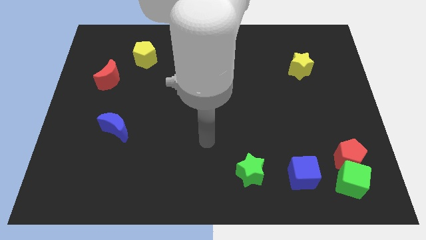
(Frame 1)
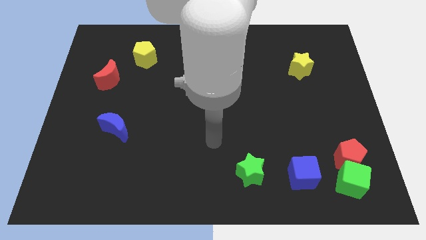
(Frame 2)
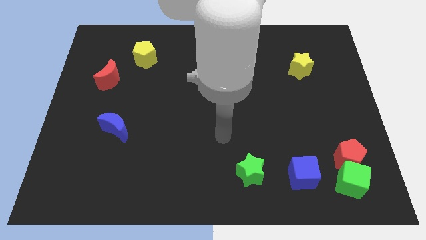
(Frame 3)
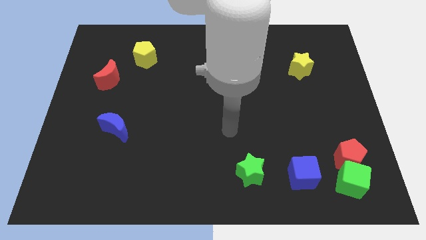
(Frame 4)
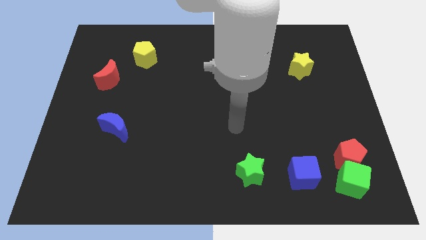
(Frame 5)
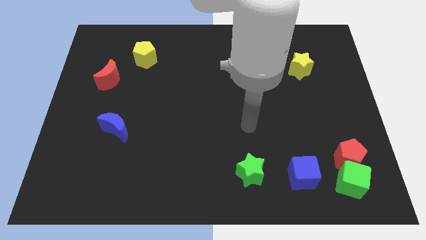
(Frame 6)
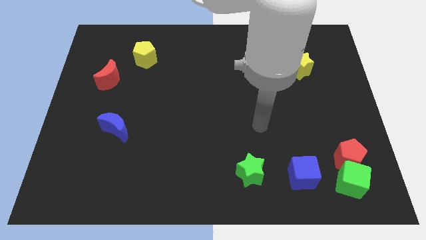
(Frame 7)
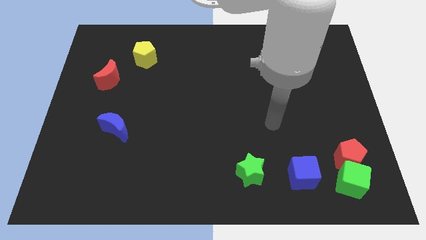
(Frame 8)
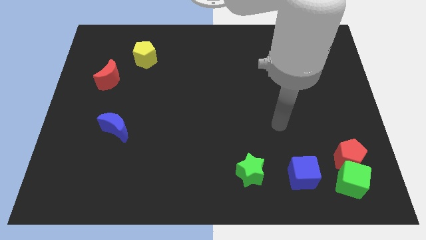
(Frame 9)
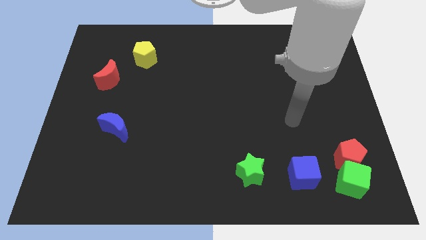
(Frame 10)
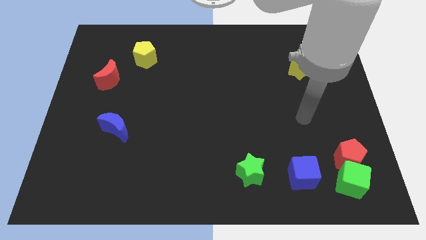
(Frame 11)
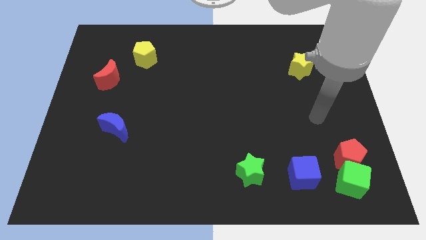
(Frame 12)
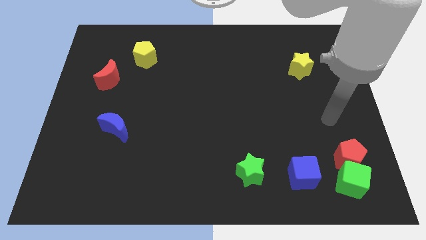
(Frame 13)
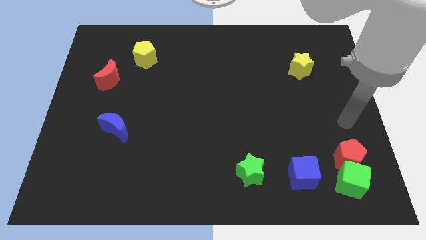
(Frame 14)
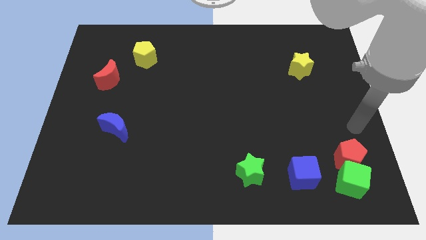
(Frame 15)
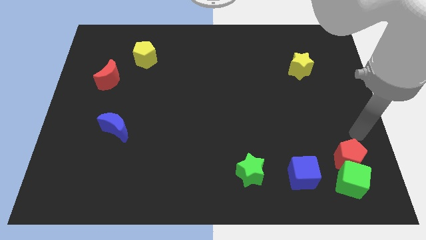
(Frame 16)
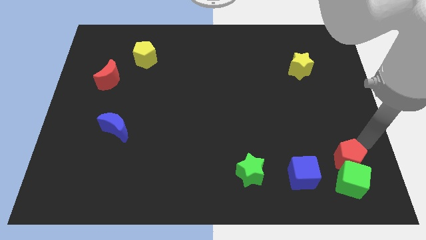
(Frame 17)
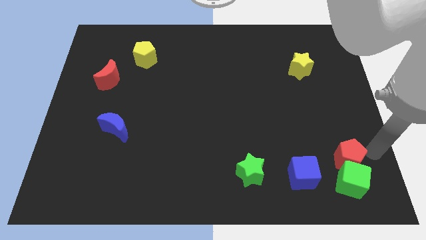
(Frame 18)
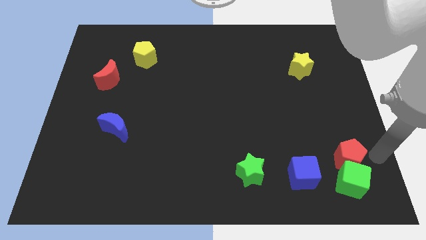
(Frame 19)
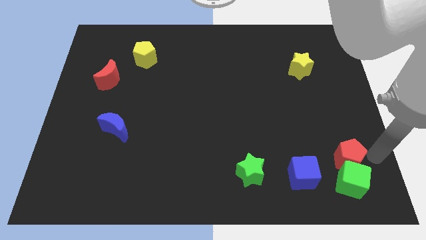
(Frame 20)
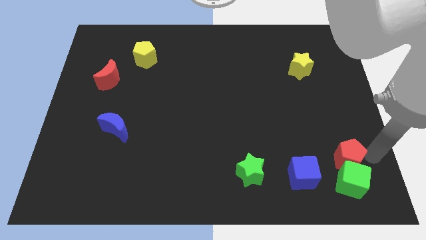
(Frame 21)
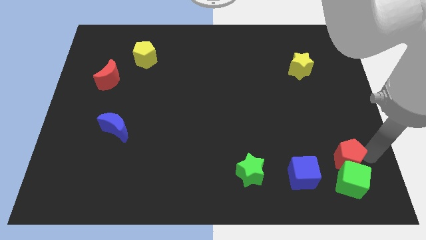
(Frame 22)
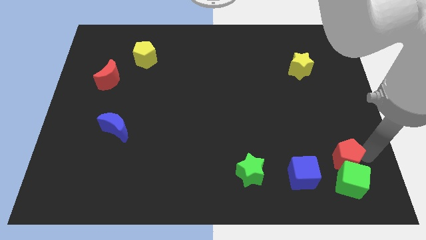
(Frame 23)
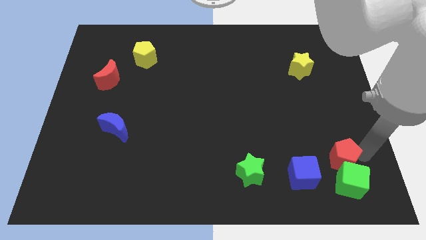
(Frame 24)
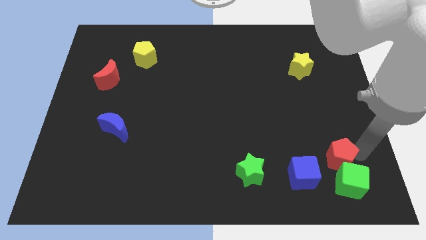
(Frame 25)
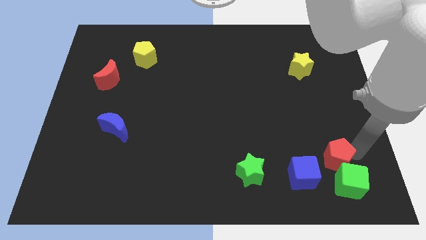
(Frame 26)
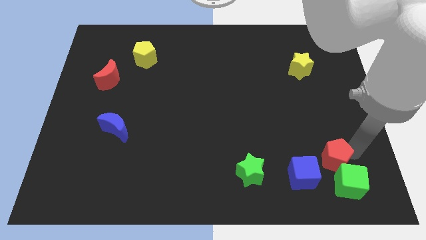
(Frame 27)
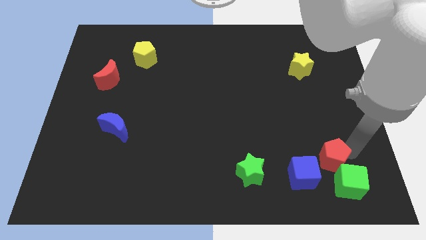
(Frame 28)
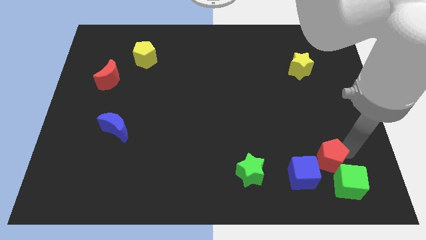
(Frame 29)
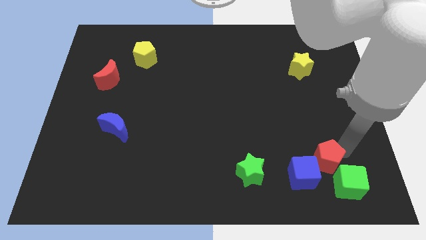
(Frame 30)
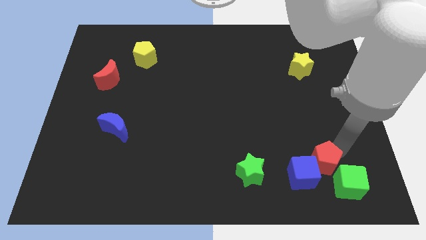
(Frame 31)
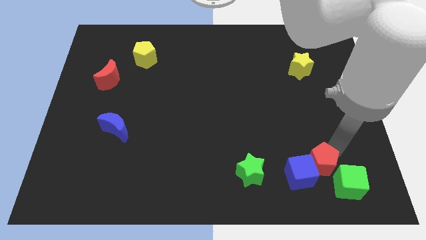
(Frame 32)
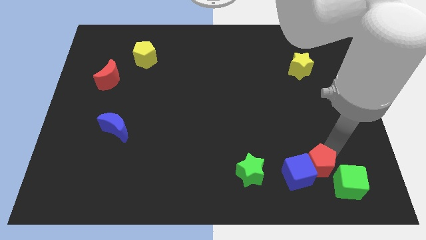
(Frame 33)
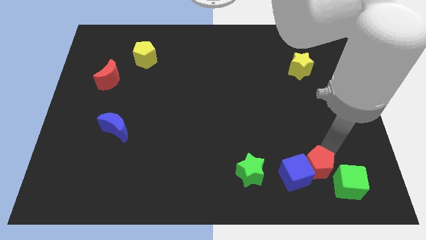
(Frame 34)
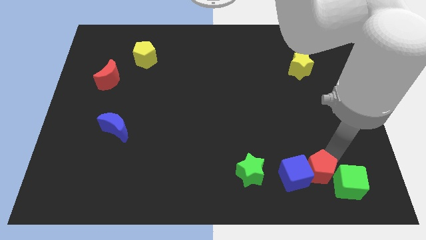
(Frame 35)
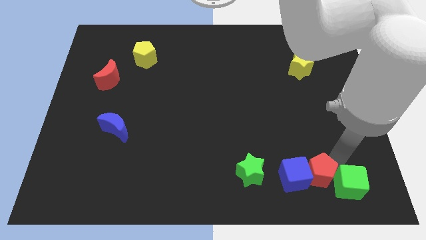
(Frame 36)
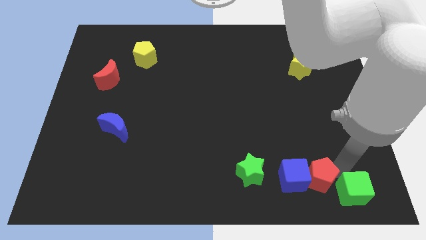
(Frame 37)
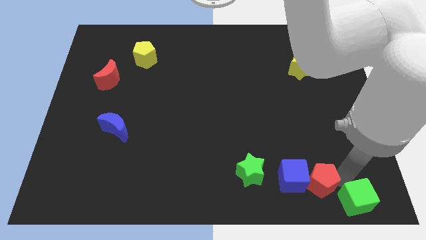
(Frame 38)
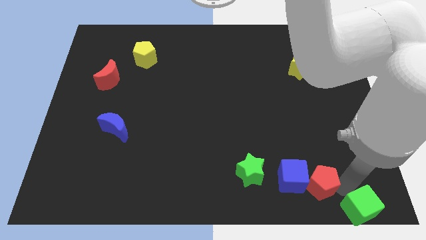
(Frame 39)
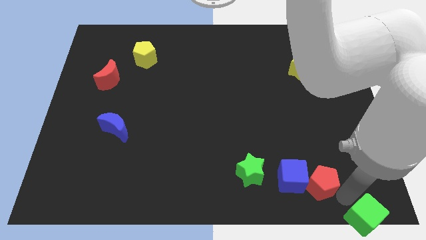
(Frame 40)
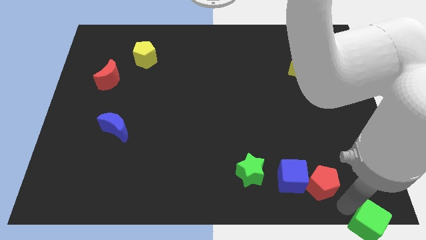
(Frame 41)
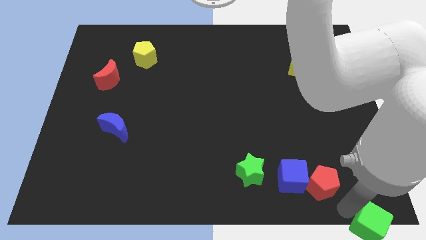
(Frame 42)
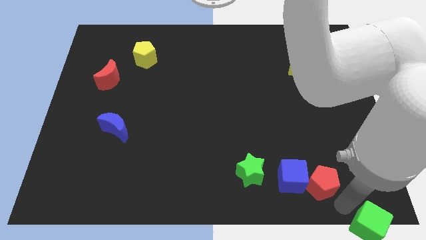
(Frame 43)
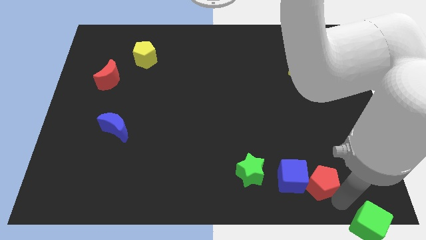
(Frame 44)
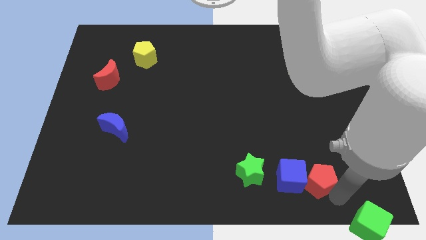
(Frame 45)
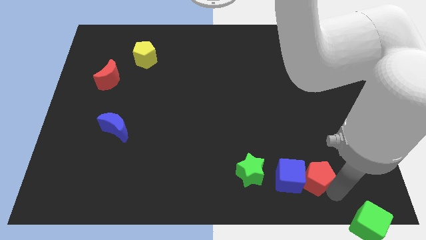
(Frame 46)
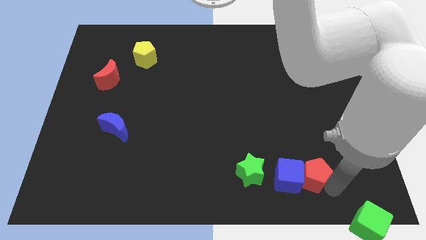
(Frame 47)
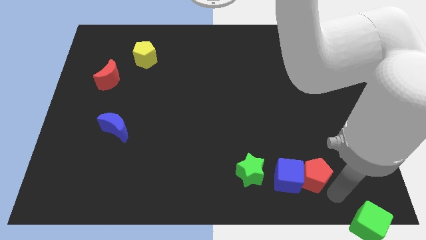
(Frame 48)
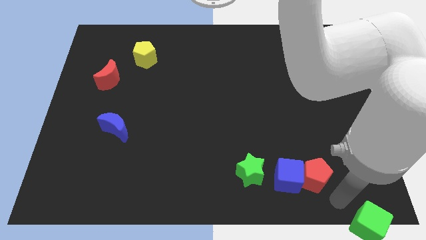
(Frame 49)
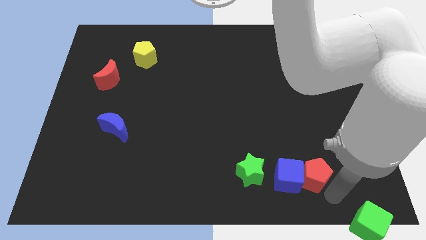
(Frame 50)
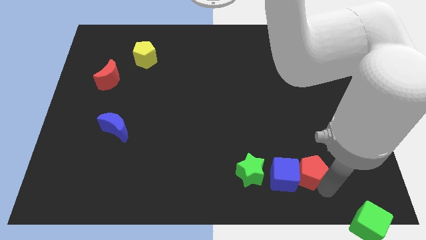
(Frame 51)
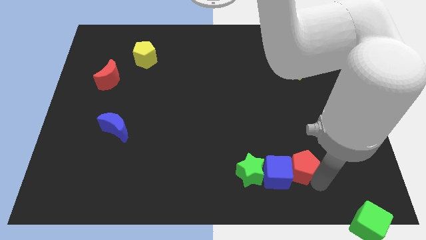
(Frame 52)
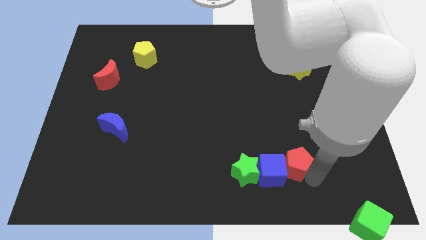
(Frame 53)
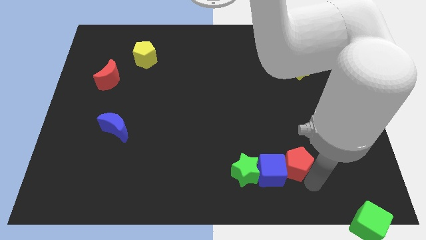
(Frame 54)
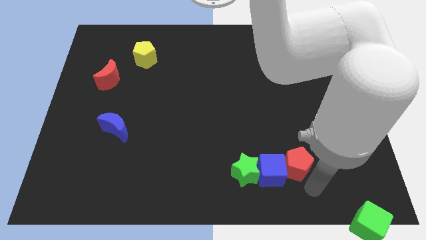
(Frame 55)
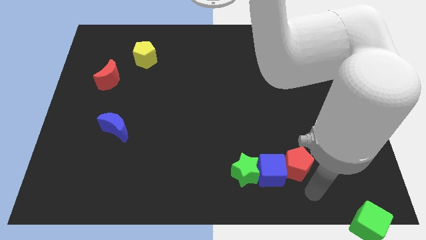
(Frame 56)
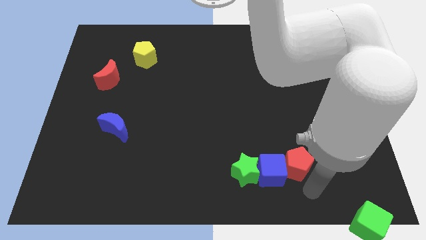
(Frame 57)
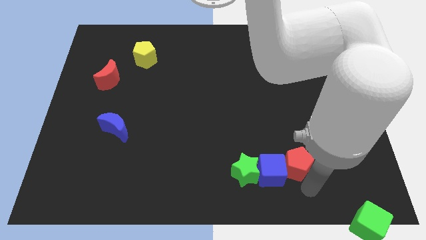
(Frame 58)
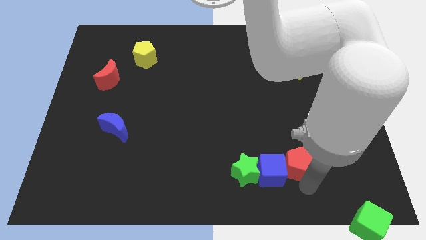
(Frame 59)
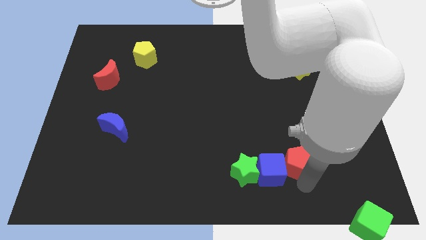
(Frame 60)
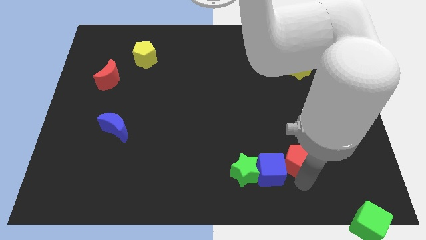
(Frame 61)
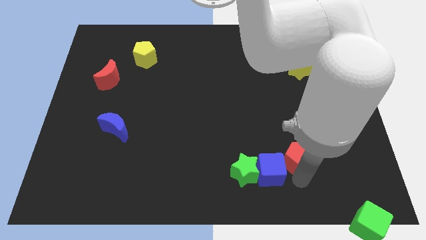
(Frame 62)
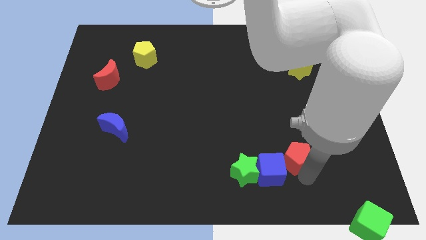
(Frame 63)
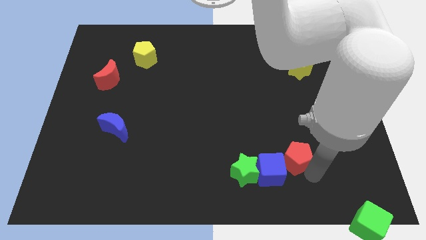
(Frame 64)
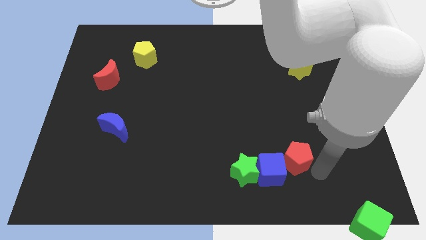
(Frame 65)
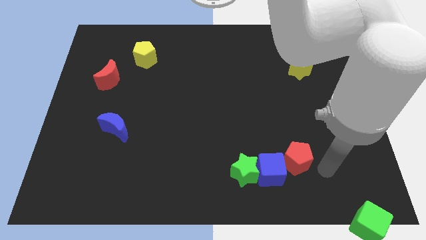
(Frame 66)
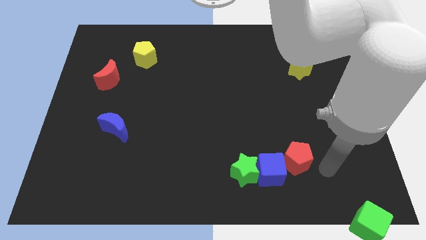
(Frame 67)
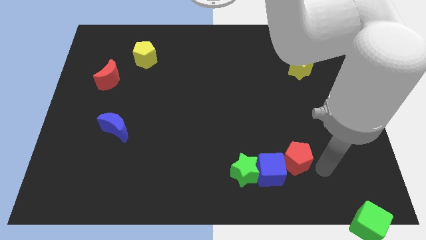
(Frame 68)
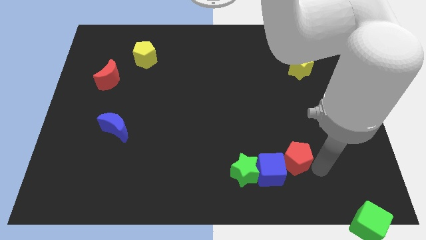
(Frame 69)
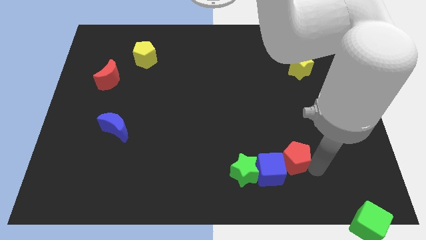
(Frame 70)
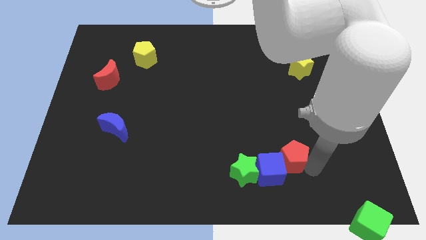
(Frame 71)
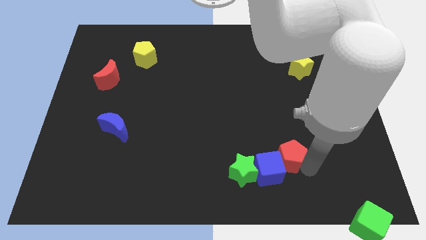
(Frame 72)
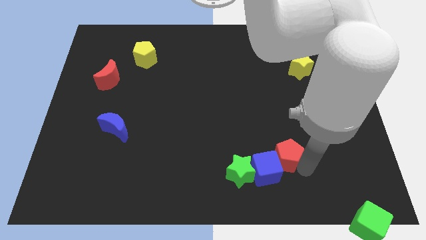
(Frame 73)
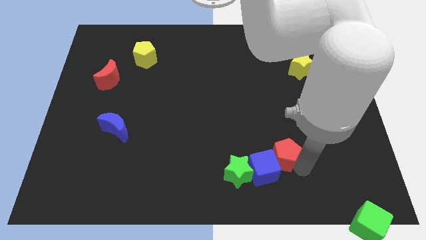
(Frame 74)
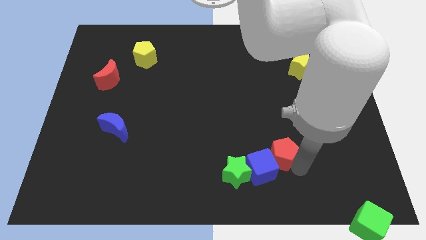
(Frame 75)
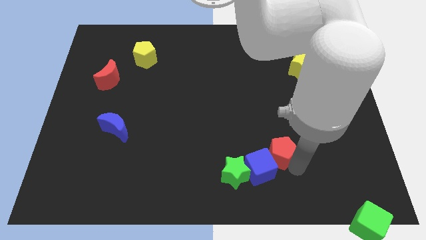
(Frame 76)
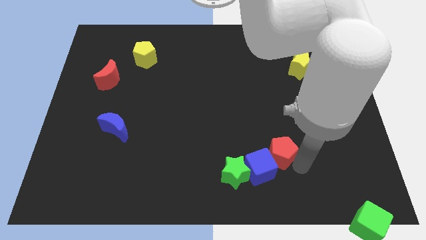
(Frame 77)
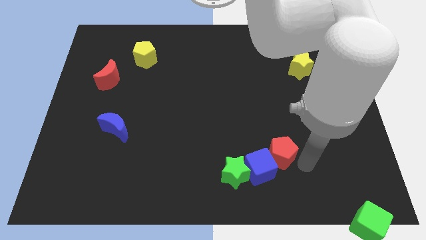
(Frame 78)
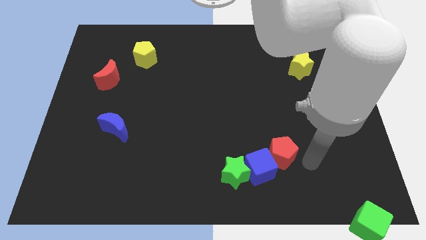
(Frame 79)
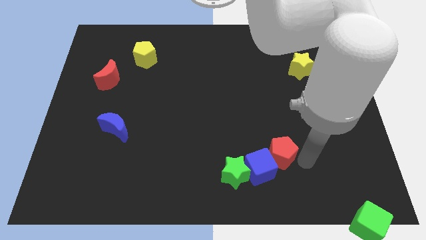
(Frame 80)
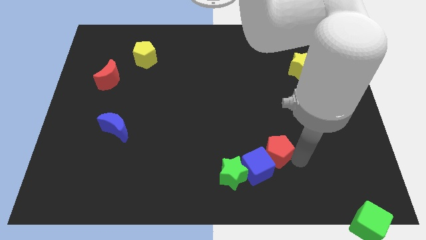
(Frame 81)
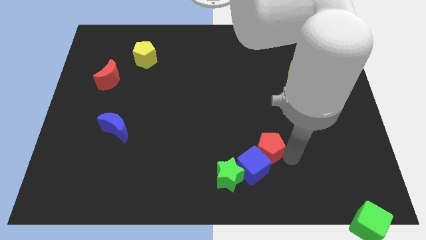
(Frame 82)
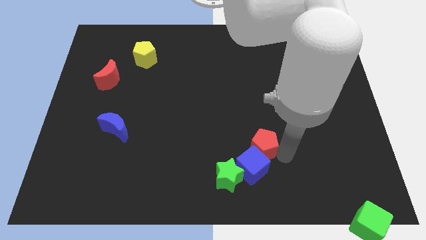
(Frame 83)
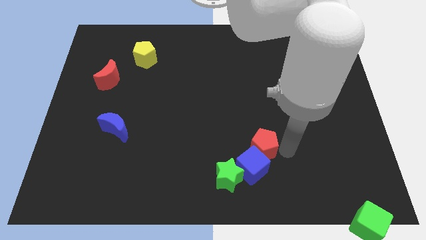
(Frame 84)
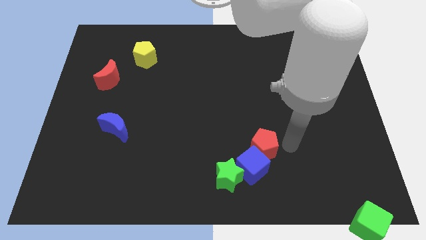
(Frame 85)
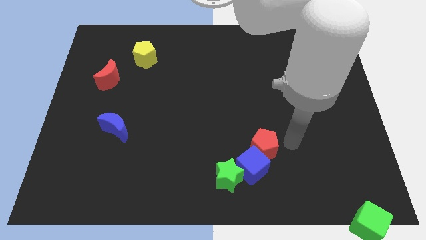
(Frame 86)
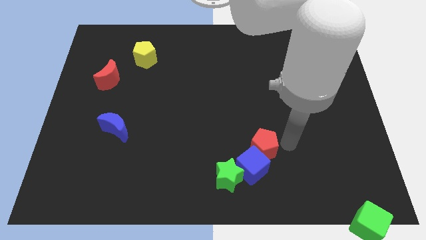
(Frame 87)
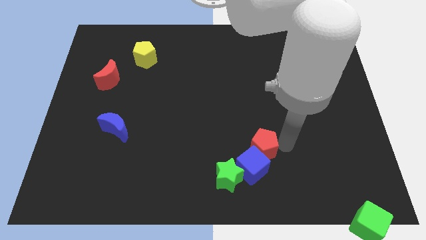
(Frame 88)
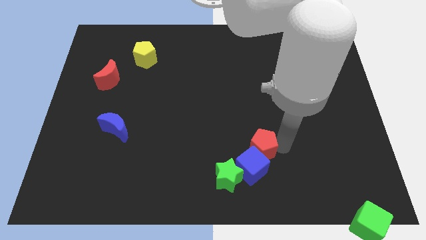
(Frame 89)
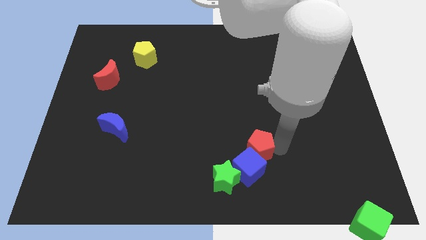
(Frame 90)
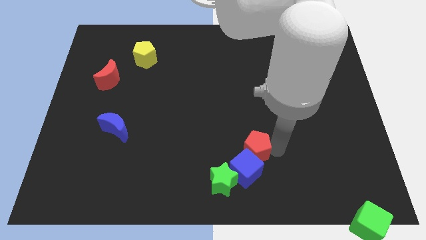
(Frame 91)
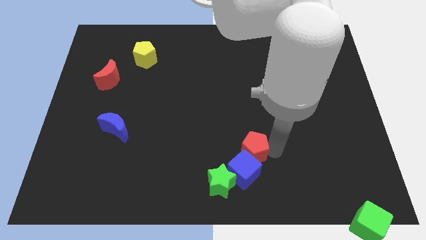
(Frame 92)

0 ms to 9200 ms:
push the red pentagon left
